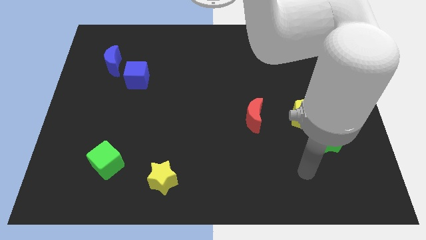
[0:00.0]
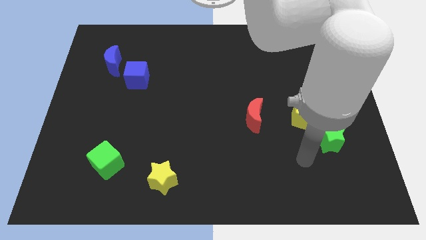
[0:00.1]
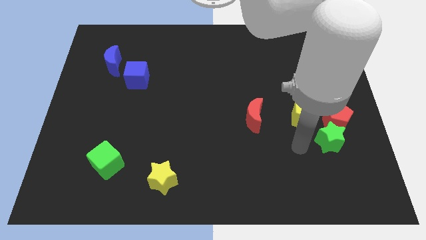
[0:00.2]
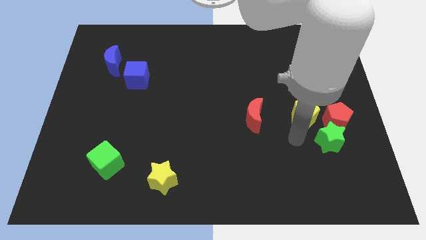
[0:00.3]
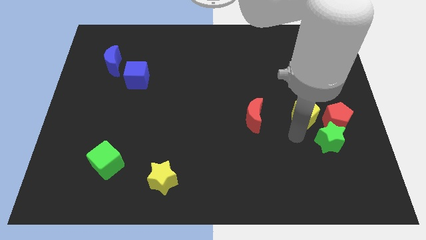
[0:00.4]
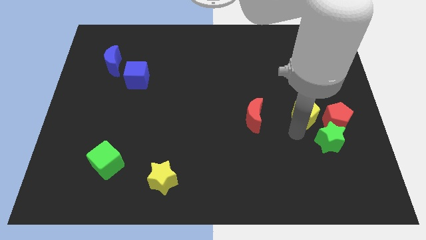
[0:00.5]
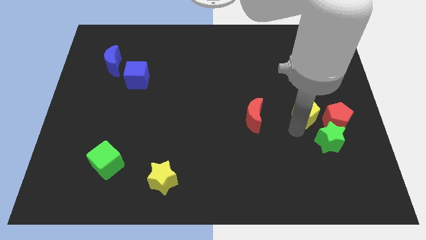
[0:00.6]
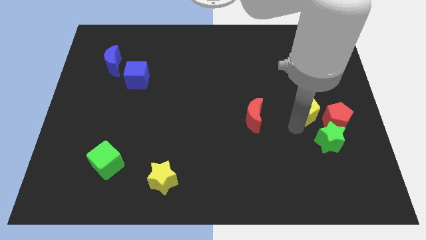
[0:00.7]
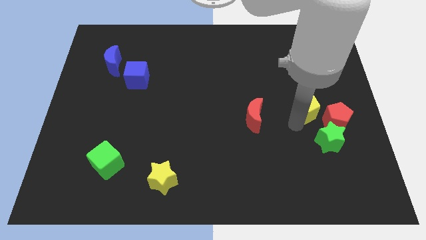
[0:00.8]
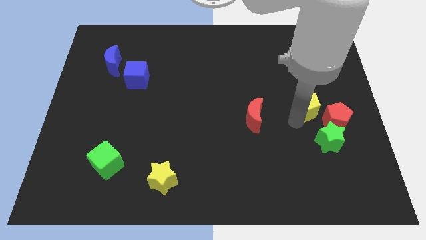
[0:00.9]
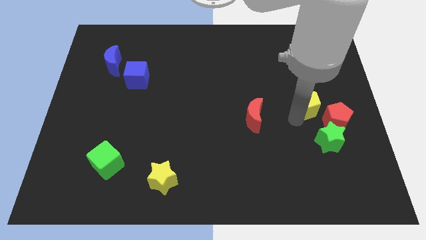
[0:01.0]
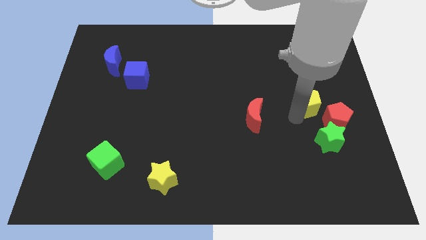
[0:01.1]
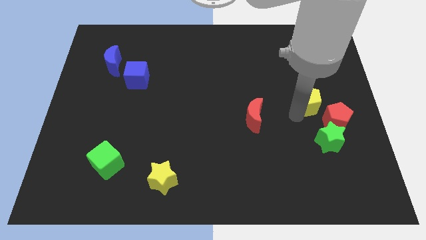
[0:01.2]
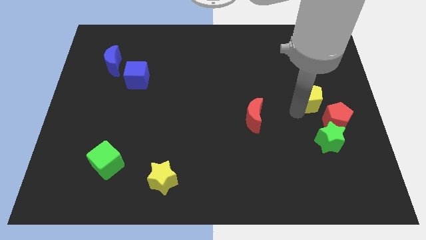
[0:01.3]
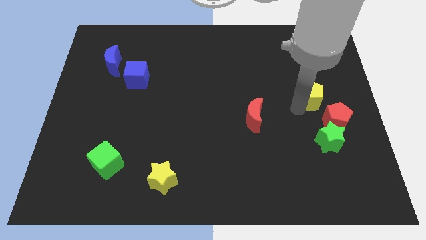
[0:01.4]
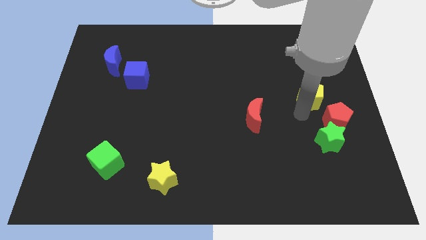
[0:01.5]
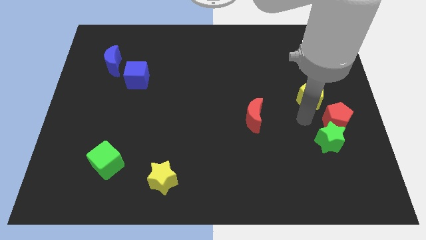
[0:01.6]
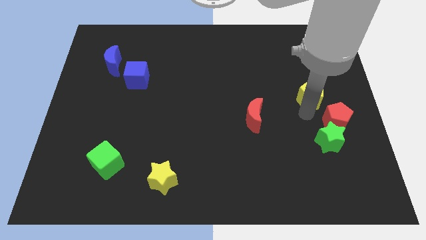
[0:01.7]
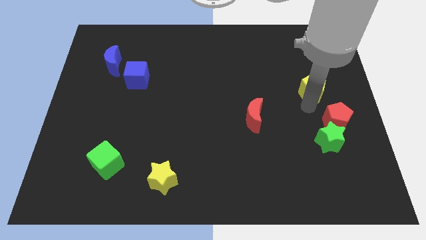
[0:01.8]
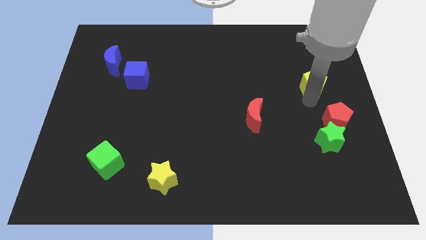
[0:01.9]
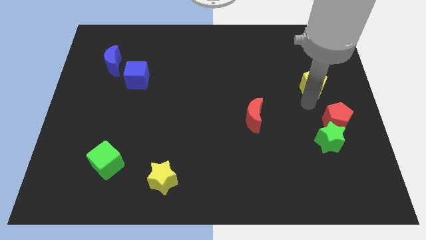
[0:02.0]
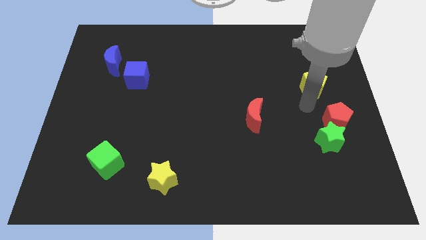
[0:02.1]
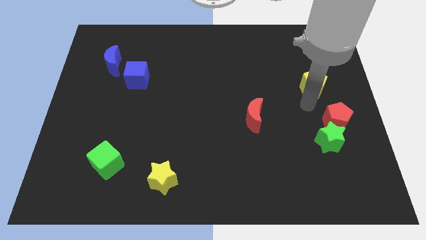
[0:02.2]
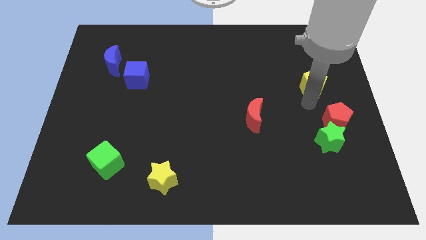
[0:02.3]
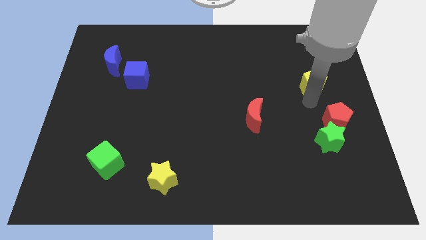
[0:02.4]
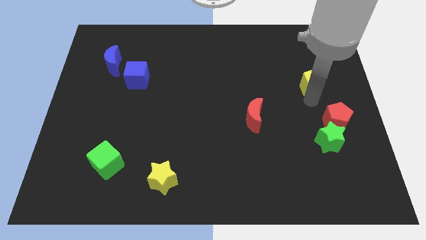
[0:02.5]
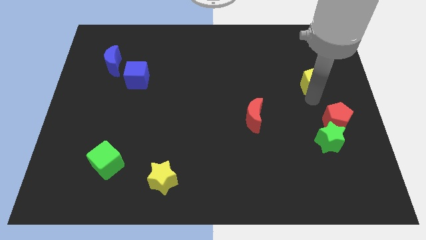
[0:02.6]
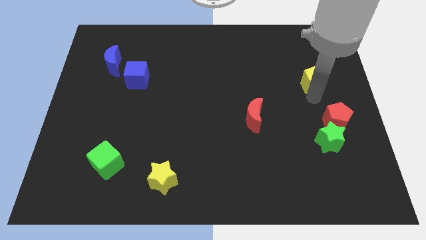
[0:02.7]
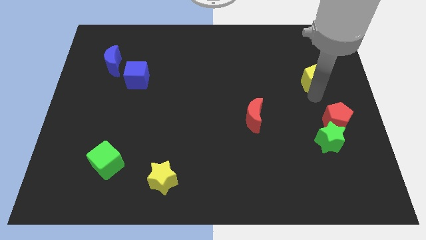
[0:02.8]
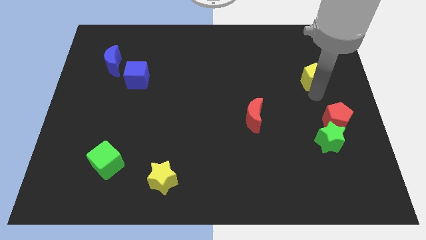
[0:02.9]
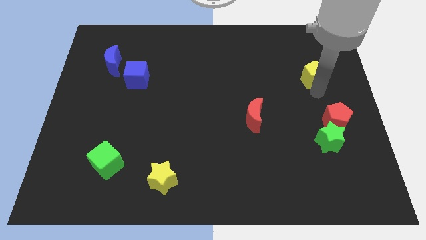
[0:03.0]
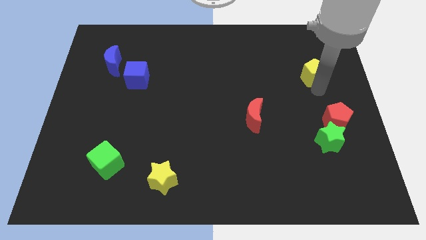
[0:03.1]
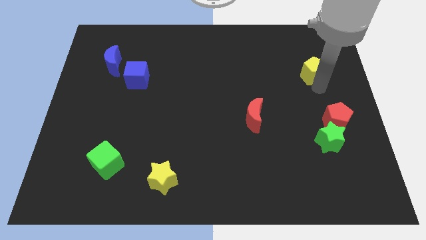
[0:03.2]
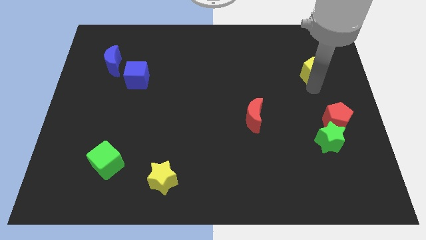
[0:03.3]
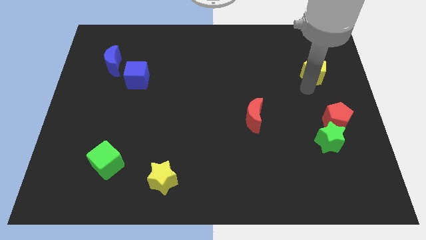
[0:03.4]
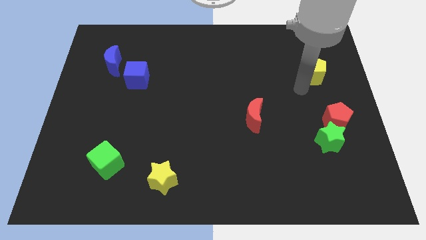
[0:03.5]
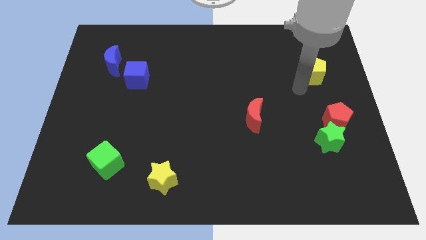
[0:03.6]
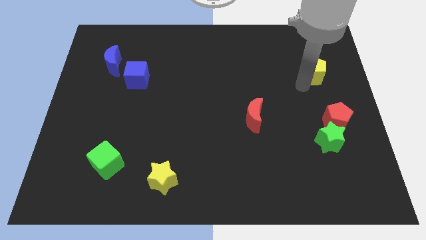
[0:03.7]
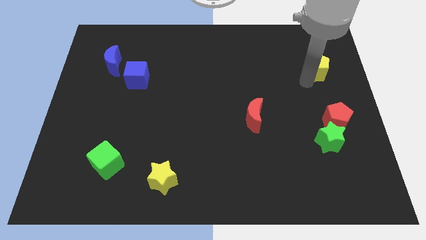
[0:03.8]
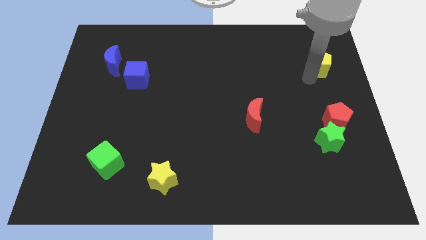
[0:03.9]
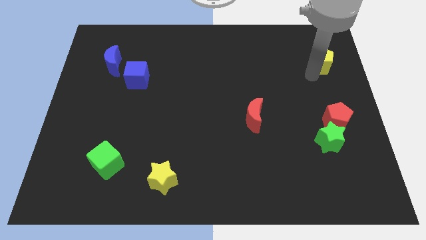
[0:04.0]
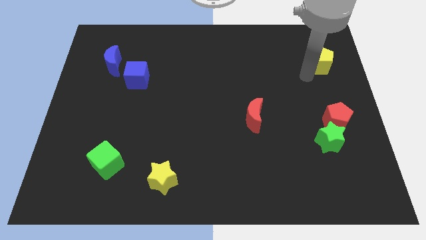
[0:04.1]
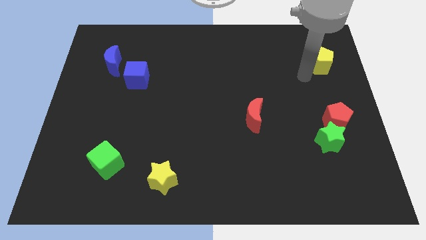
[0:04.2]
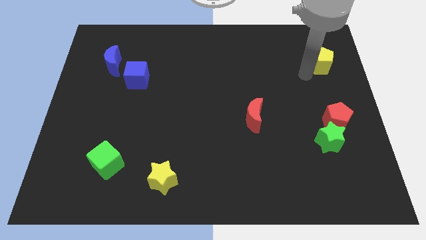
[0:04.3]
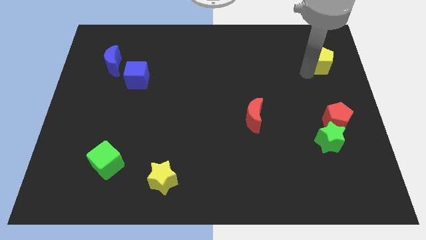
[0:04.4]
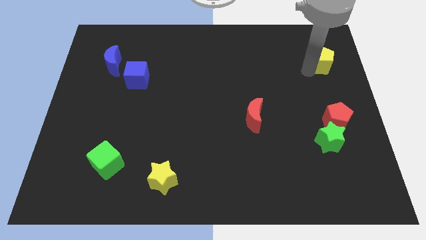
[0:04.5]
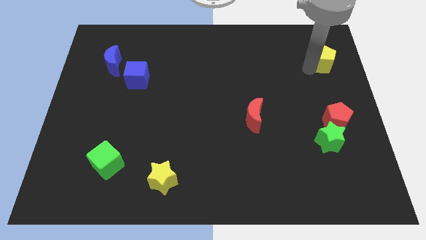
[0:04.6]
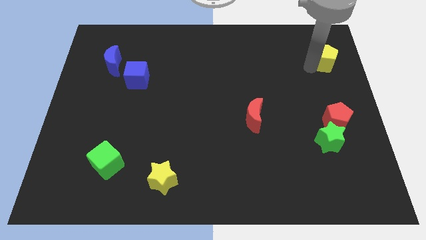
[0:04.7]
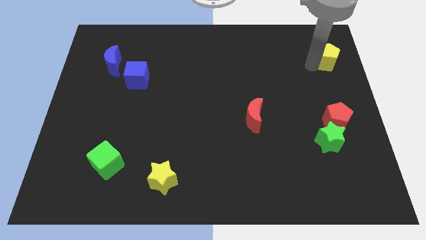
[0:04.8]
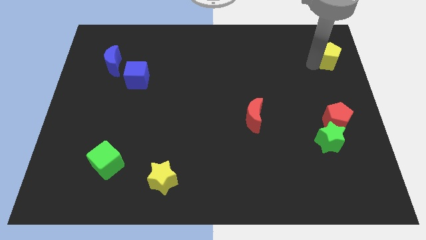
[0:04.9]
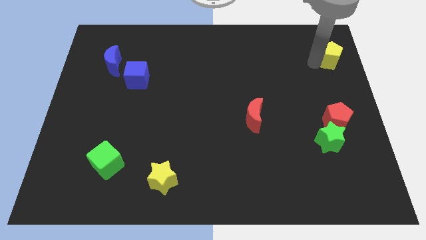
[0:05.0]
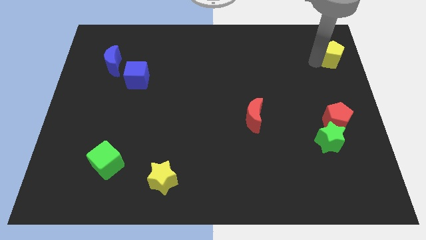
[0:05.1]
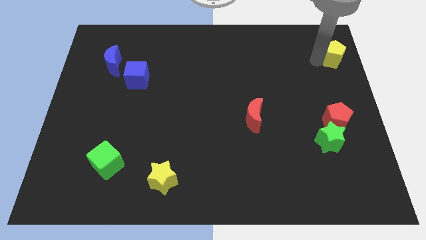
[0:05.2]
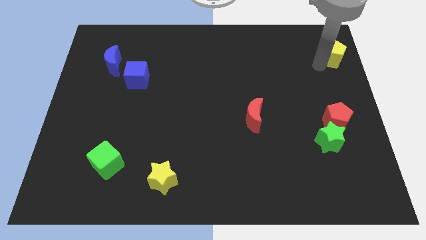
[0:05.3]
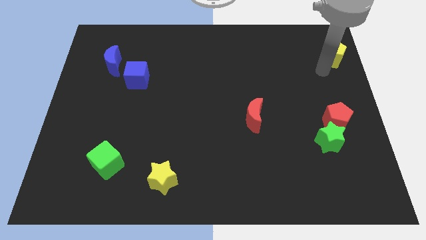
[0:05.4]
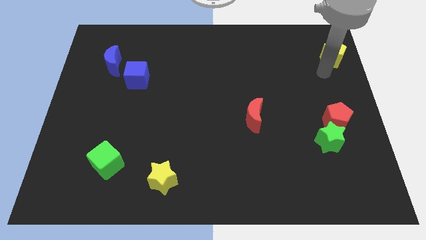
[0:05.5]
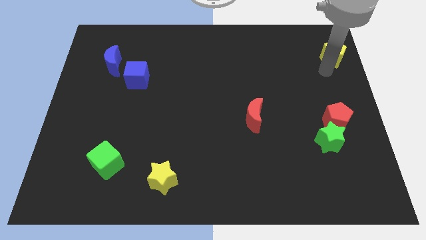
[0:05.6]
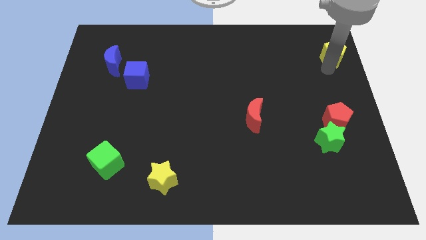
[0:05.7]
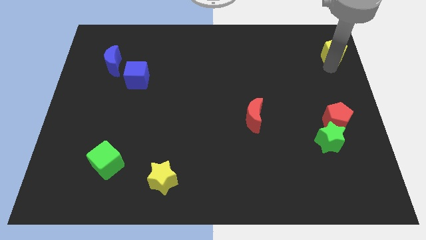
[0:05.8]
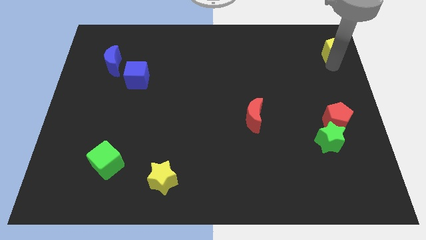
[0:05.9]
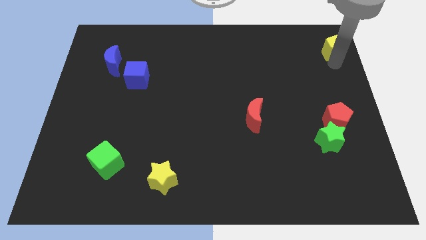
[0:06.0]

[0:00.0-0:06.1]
put the yellow pentagon to the top right corner
